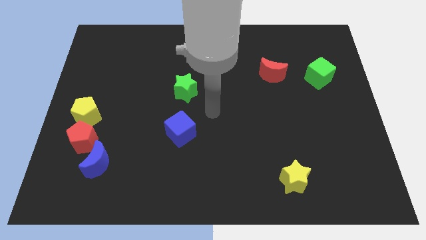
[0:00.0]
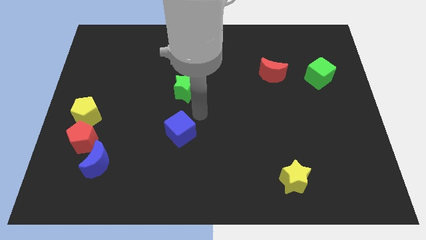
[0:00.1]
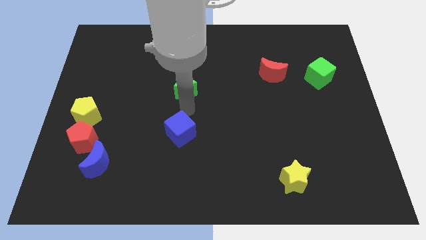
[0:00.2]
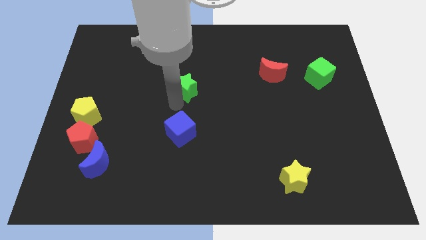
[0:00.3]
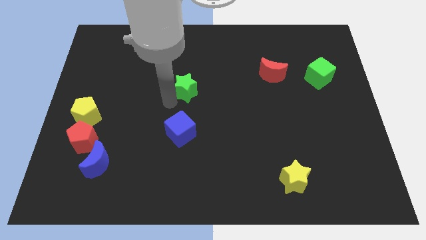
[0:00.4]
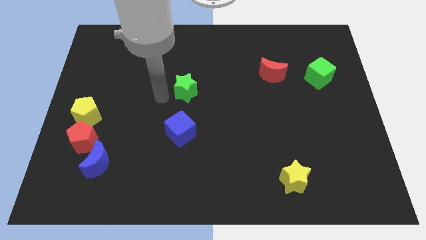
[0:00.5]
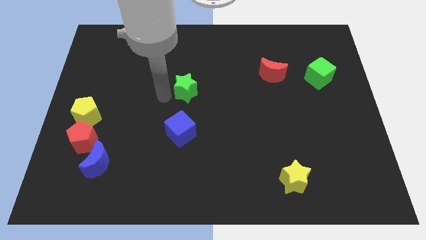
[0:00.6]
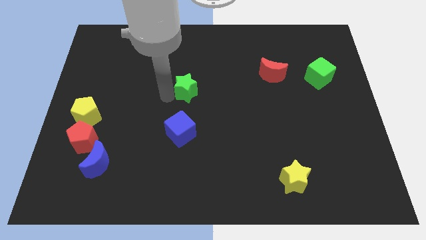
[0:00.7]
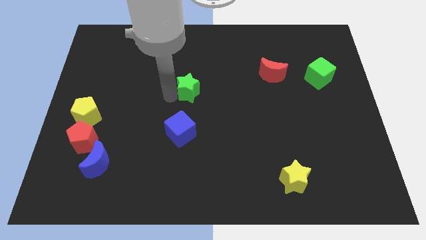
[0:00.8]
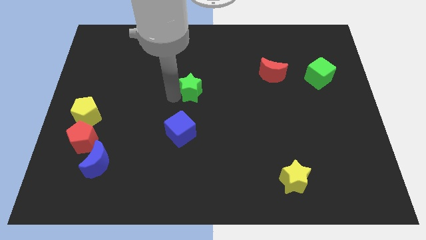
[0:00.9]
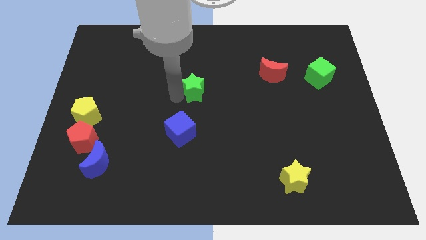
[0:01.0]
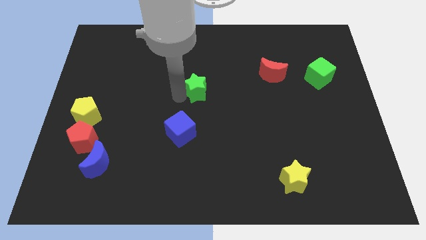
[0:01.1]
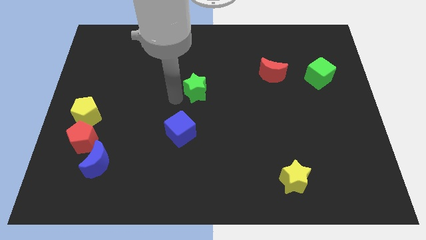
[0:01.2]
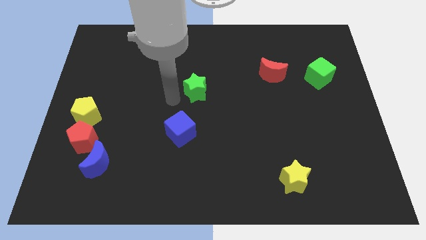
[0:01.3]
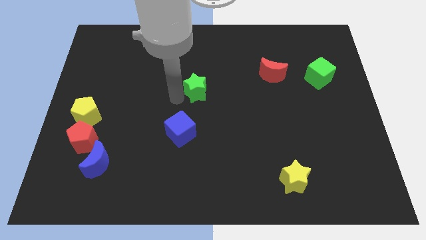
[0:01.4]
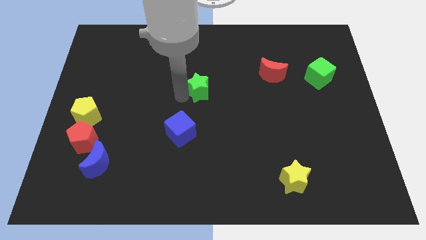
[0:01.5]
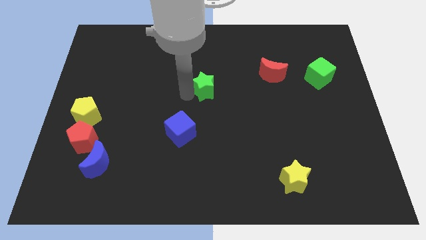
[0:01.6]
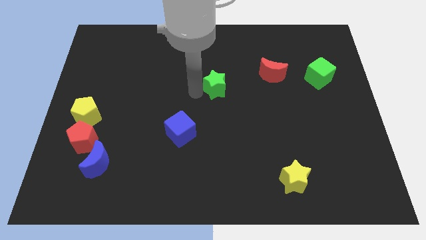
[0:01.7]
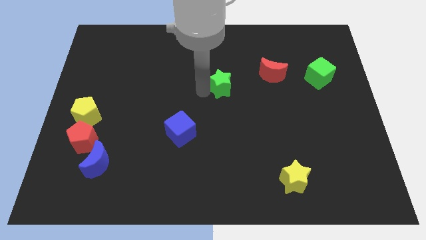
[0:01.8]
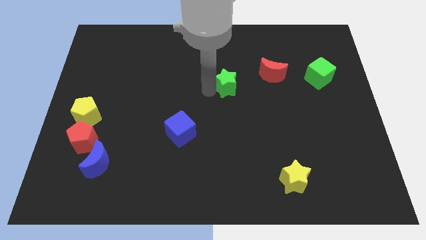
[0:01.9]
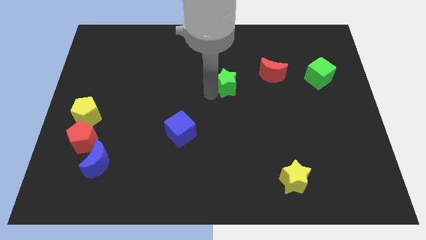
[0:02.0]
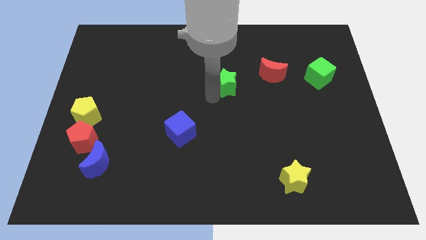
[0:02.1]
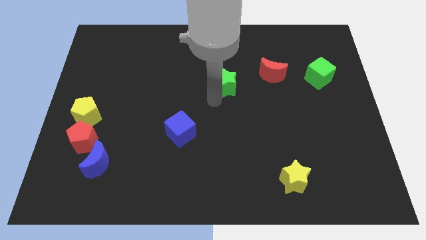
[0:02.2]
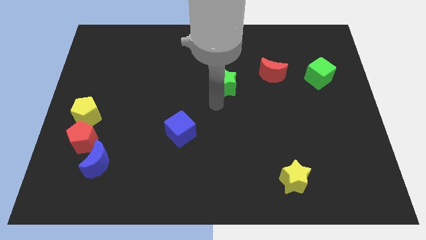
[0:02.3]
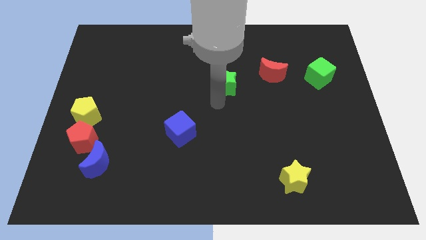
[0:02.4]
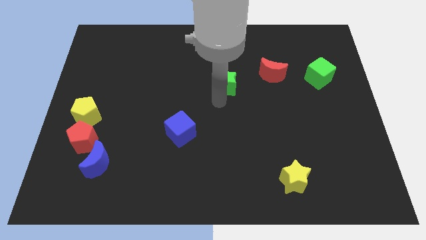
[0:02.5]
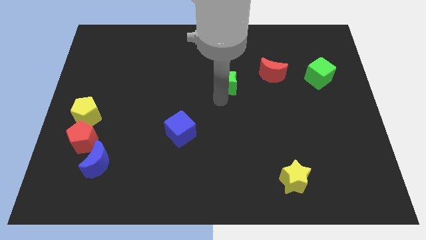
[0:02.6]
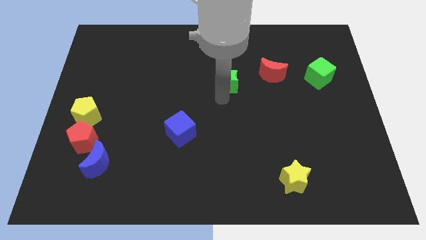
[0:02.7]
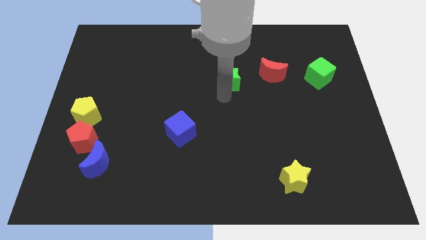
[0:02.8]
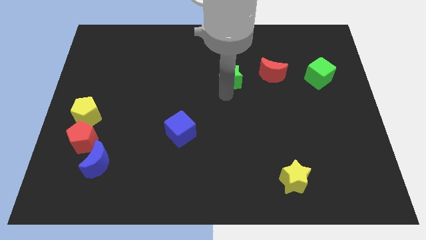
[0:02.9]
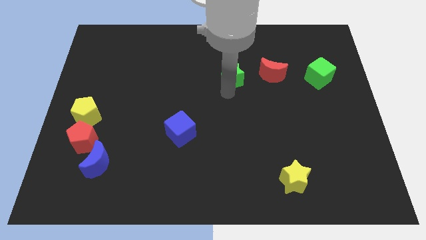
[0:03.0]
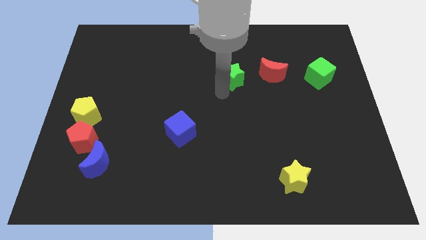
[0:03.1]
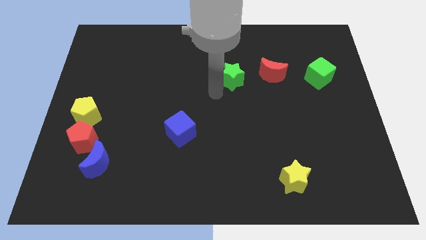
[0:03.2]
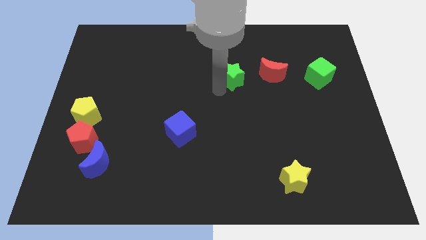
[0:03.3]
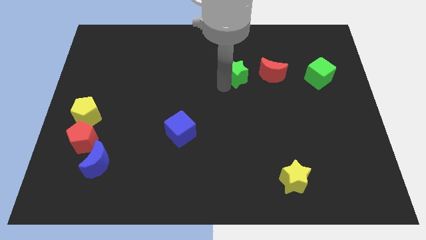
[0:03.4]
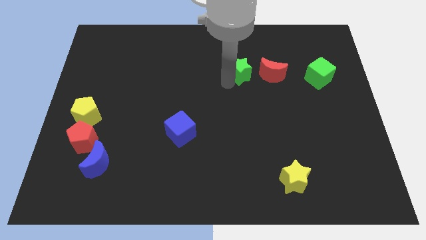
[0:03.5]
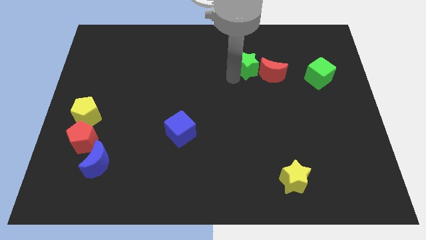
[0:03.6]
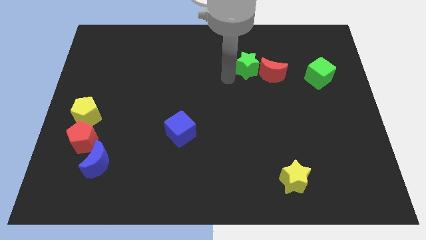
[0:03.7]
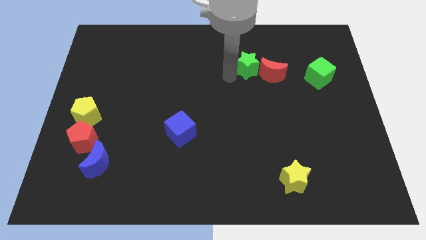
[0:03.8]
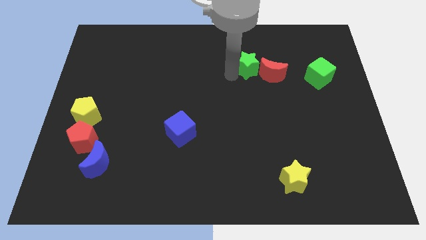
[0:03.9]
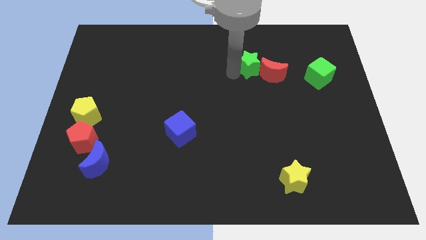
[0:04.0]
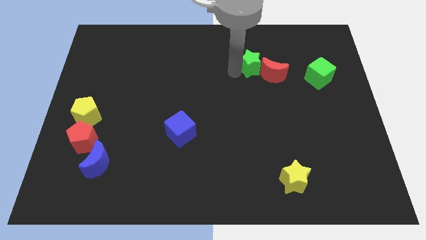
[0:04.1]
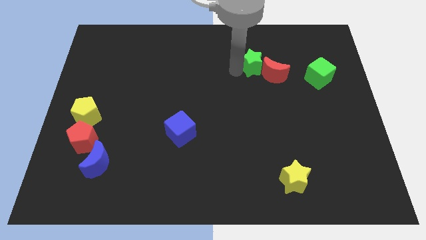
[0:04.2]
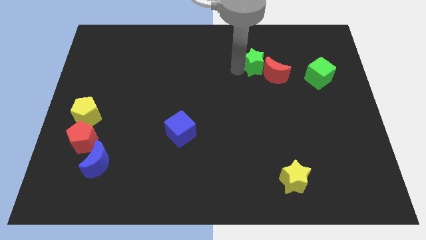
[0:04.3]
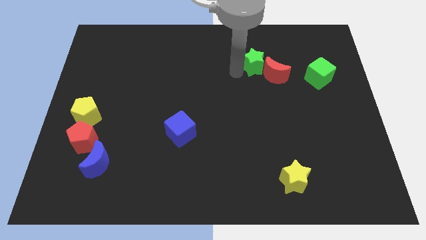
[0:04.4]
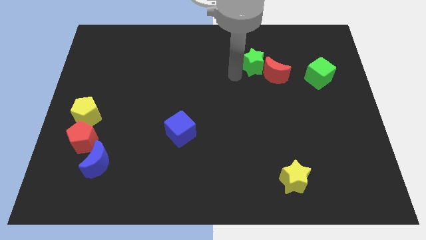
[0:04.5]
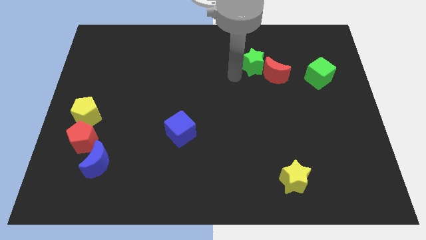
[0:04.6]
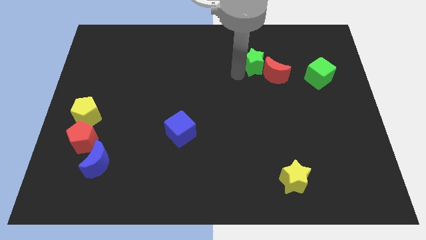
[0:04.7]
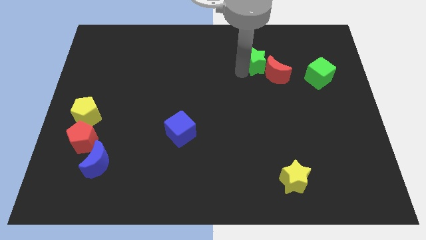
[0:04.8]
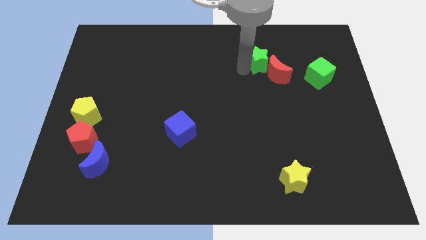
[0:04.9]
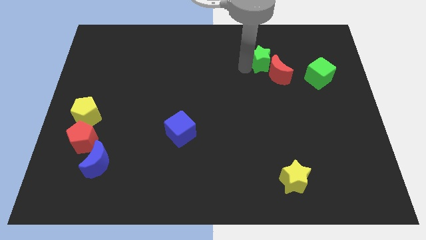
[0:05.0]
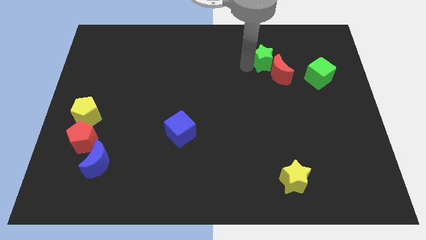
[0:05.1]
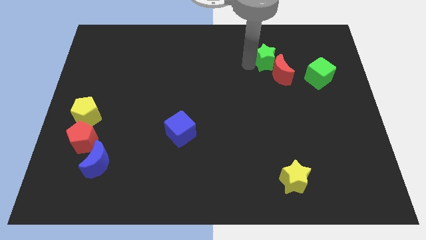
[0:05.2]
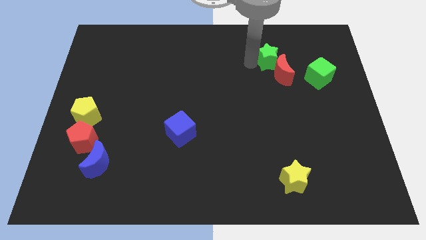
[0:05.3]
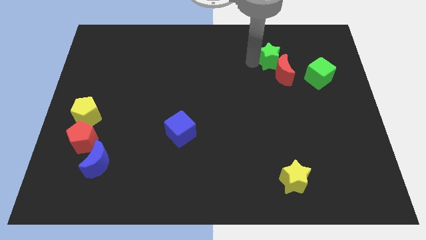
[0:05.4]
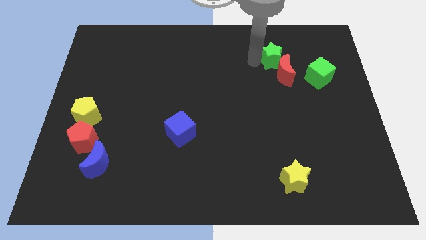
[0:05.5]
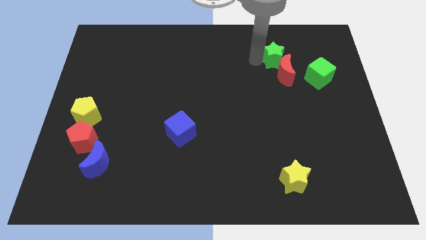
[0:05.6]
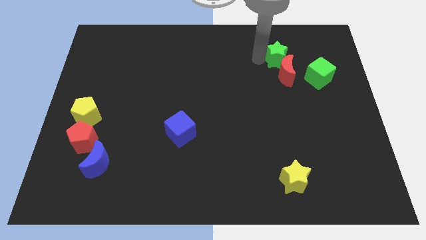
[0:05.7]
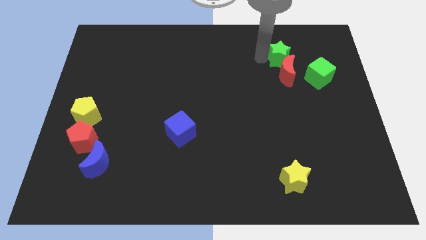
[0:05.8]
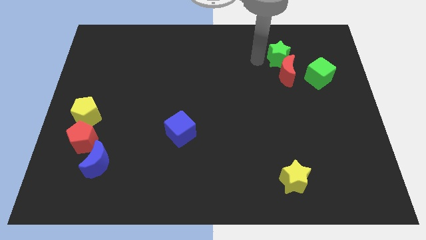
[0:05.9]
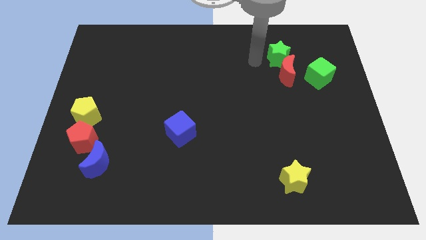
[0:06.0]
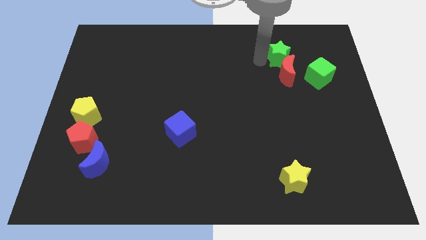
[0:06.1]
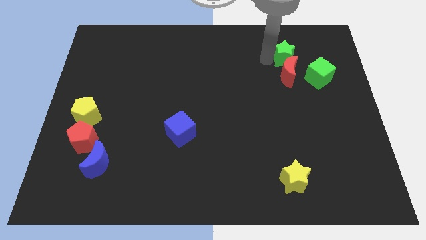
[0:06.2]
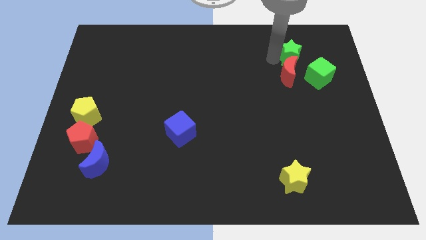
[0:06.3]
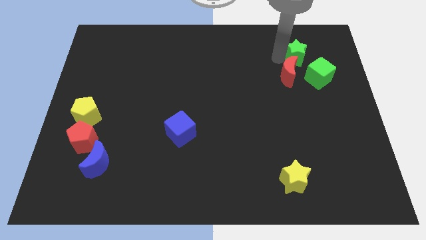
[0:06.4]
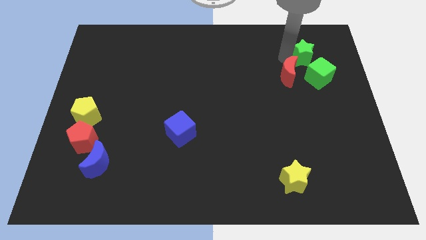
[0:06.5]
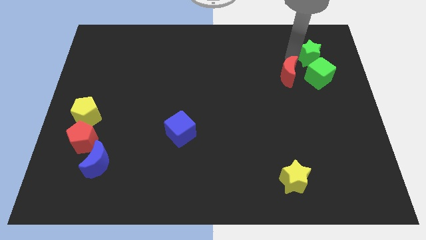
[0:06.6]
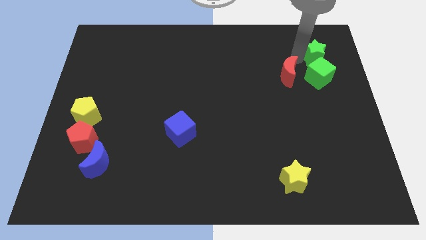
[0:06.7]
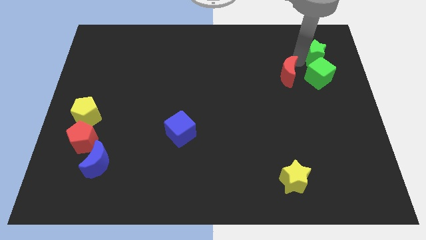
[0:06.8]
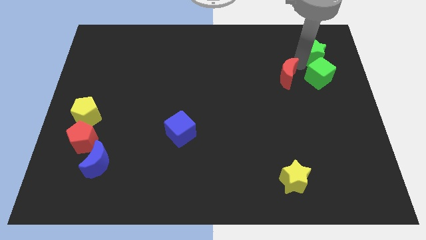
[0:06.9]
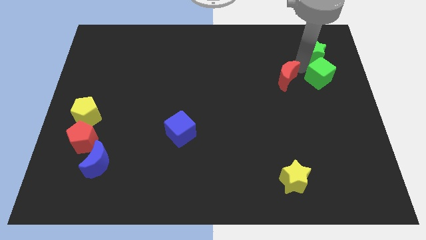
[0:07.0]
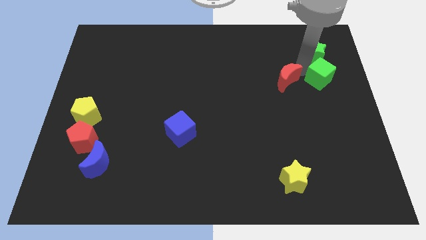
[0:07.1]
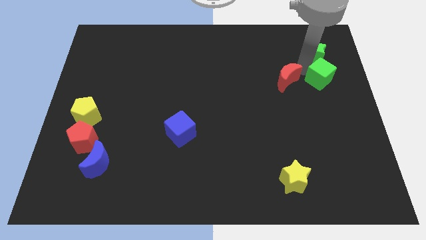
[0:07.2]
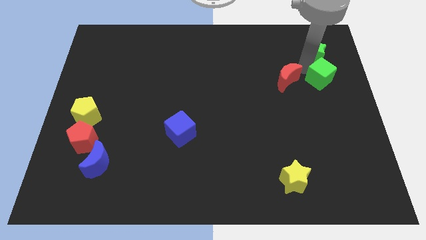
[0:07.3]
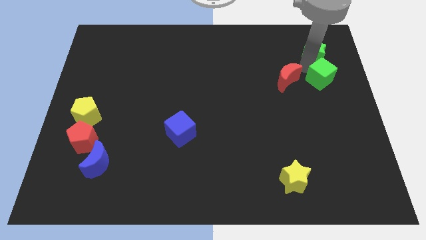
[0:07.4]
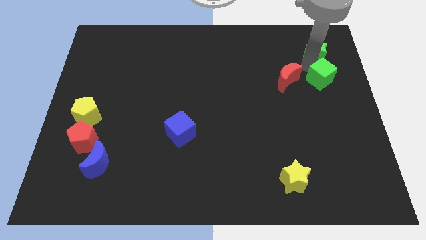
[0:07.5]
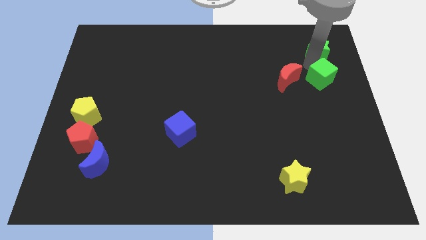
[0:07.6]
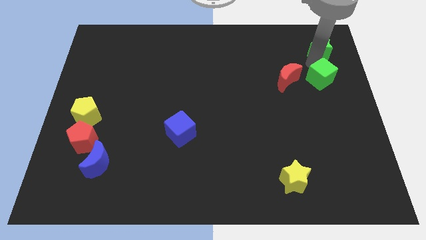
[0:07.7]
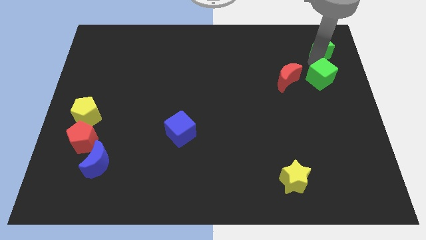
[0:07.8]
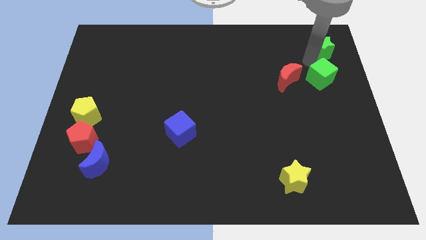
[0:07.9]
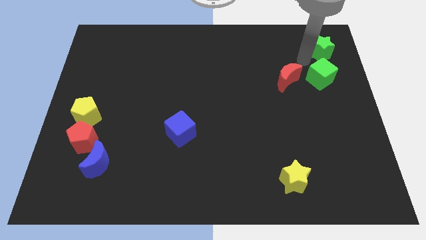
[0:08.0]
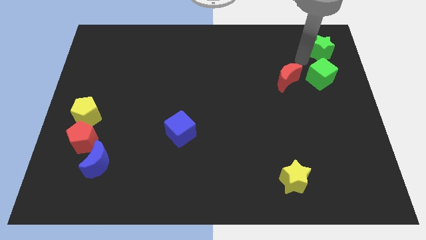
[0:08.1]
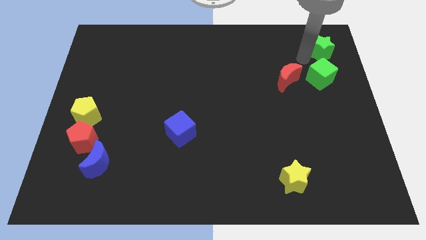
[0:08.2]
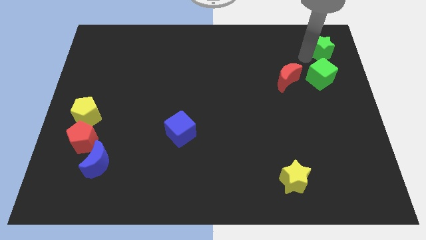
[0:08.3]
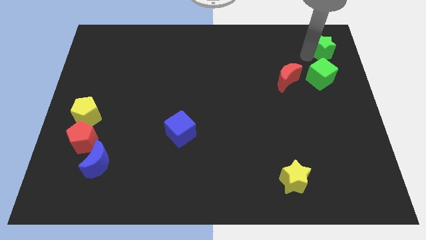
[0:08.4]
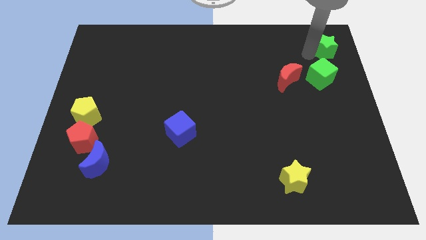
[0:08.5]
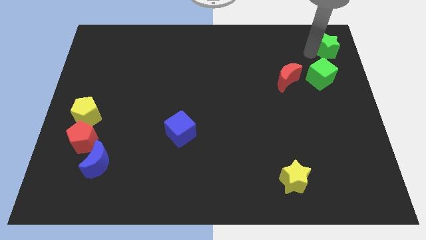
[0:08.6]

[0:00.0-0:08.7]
push the green star to the top right
